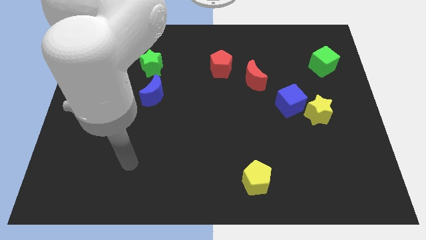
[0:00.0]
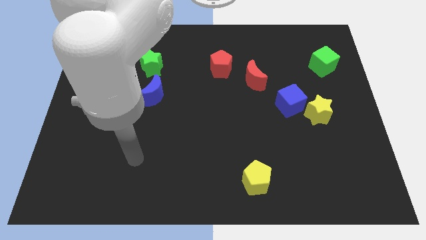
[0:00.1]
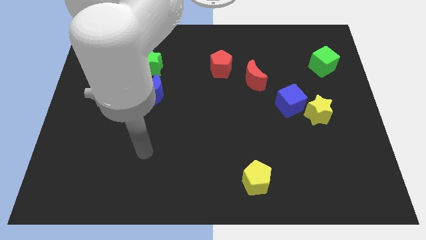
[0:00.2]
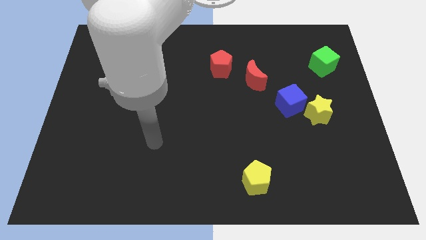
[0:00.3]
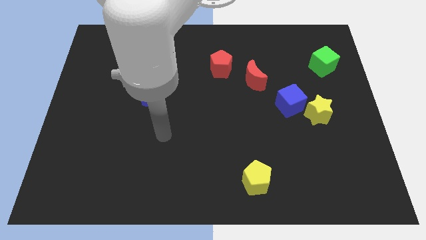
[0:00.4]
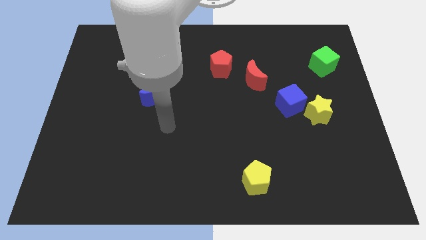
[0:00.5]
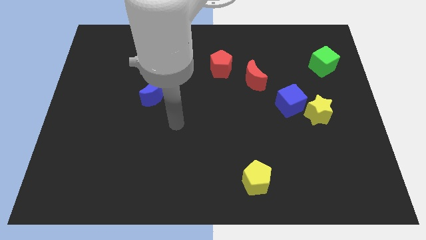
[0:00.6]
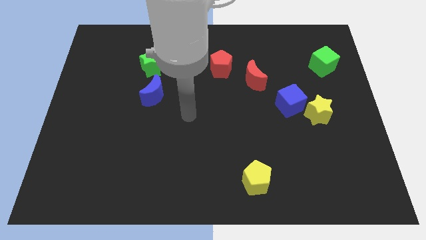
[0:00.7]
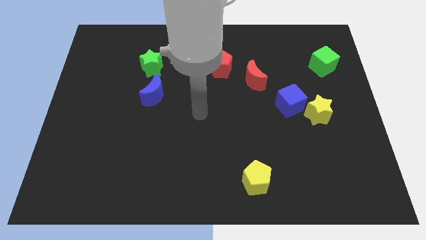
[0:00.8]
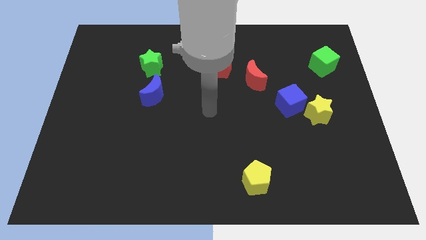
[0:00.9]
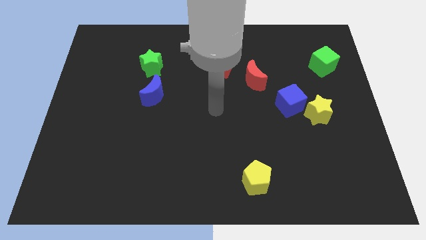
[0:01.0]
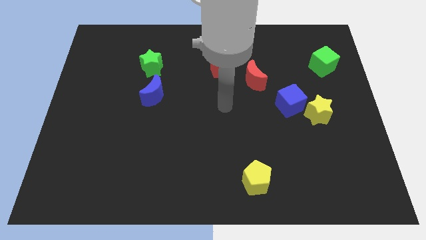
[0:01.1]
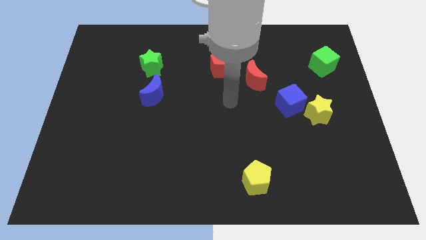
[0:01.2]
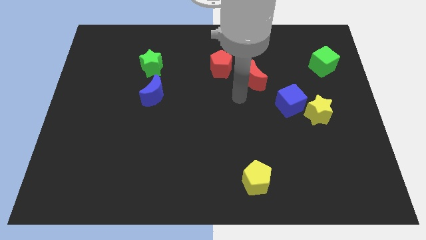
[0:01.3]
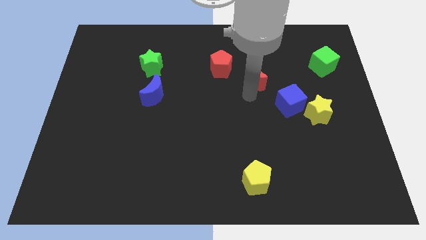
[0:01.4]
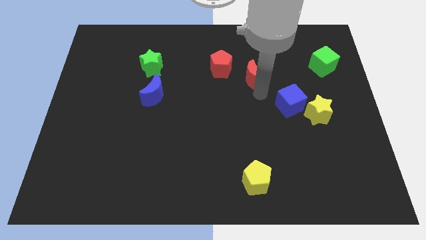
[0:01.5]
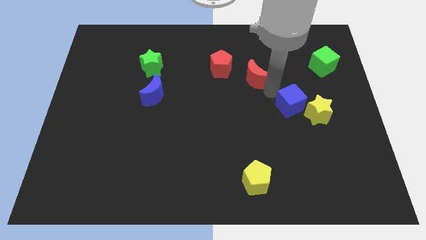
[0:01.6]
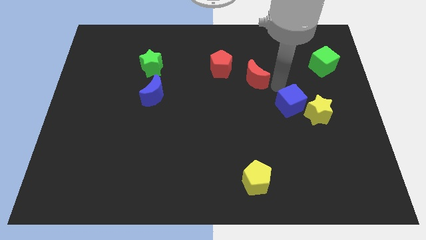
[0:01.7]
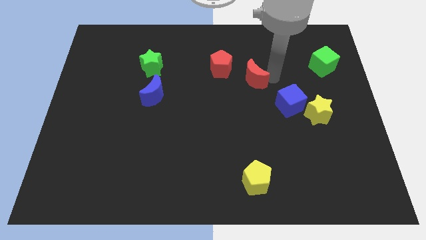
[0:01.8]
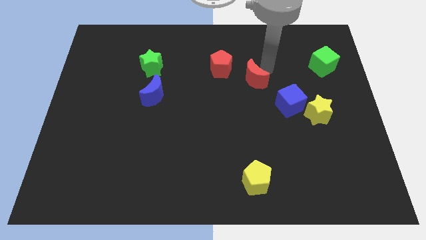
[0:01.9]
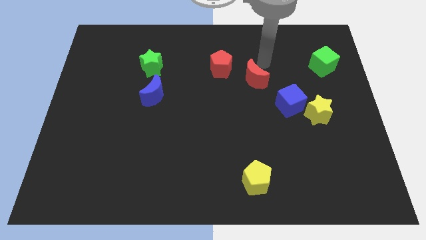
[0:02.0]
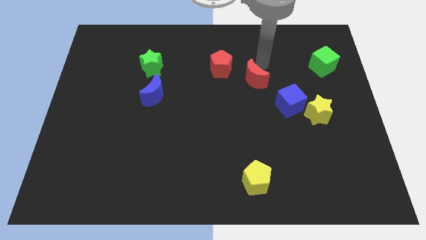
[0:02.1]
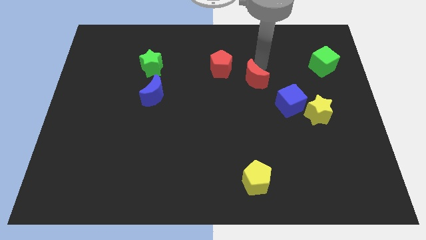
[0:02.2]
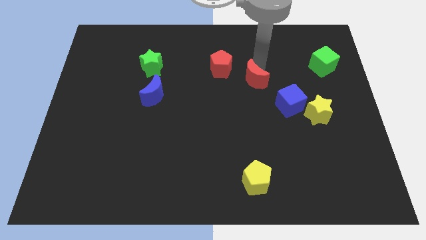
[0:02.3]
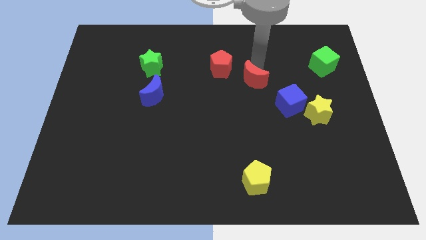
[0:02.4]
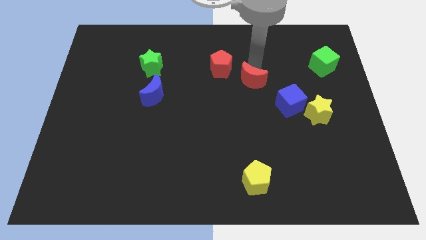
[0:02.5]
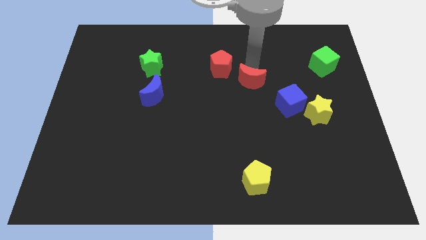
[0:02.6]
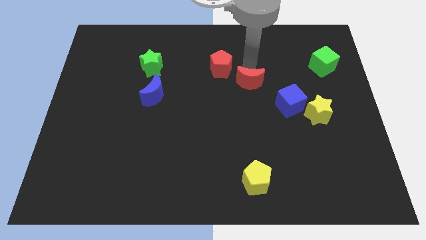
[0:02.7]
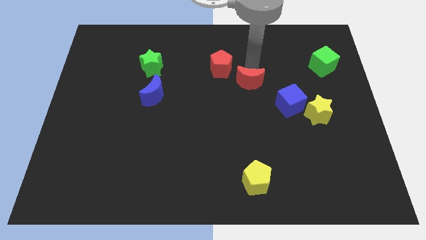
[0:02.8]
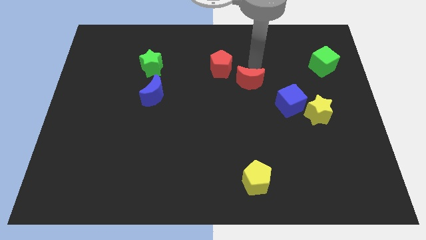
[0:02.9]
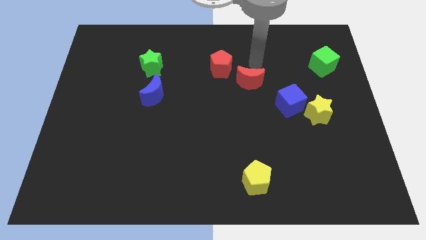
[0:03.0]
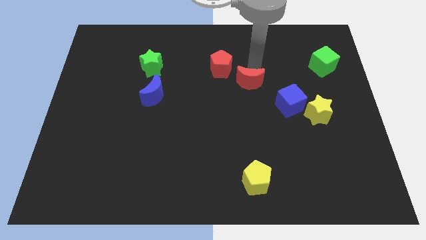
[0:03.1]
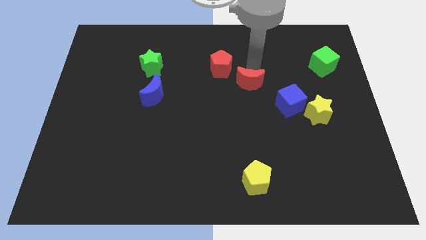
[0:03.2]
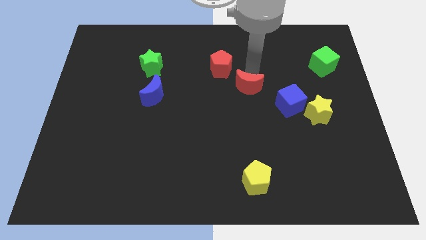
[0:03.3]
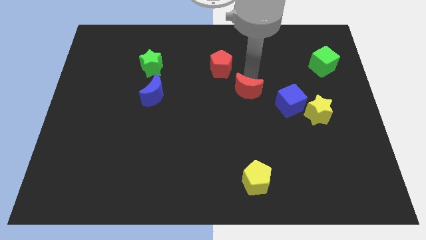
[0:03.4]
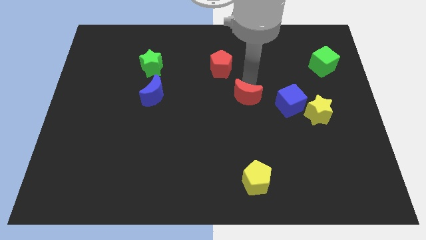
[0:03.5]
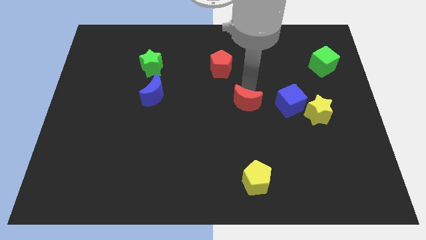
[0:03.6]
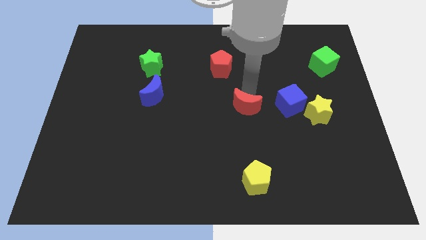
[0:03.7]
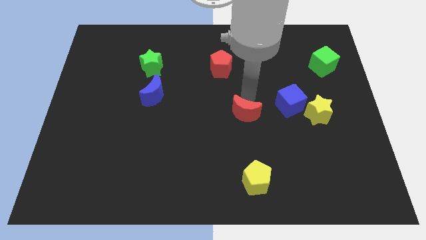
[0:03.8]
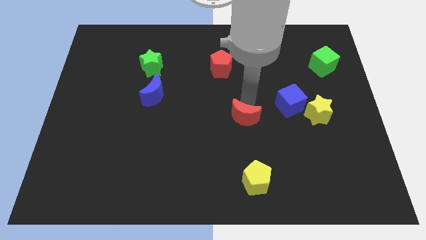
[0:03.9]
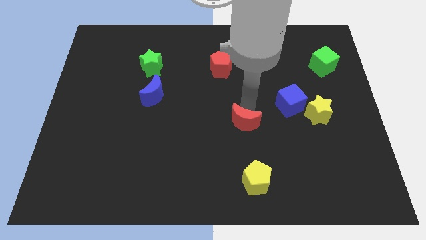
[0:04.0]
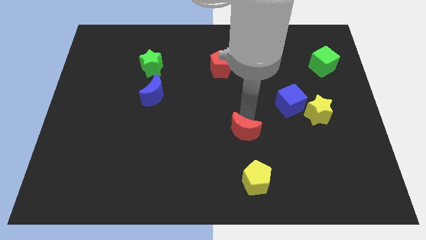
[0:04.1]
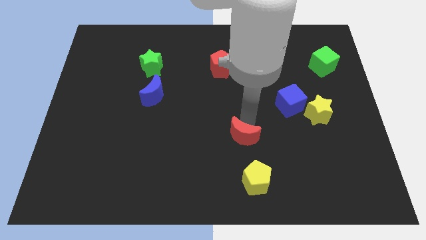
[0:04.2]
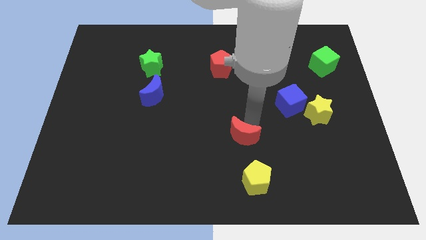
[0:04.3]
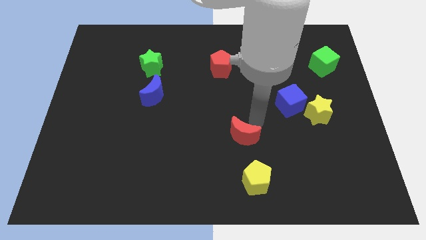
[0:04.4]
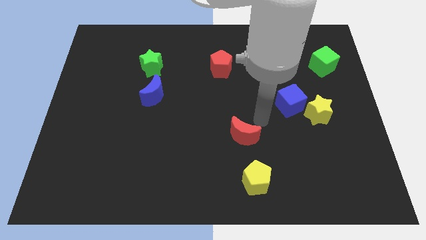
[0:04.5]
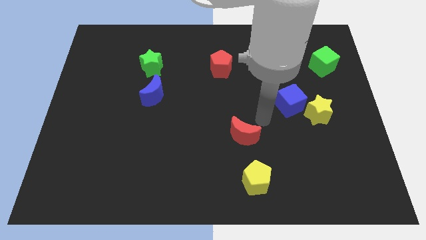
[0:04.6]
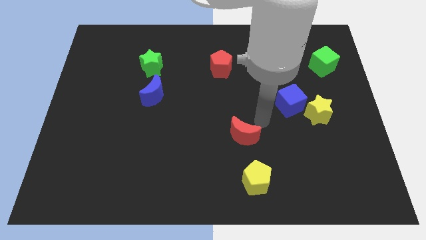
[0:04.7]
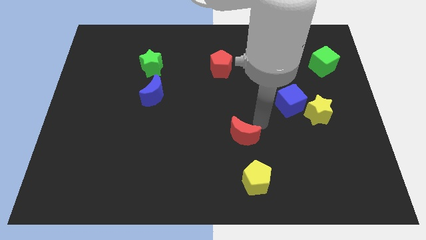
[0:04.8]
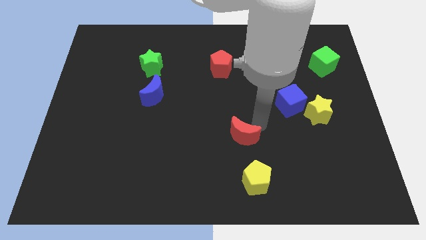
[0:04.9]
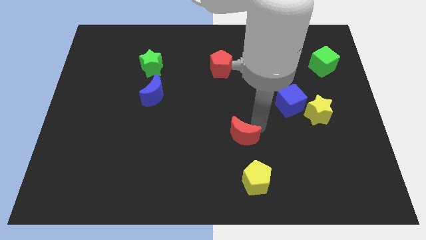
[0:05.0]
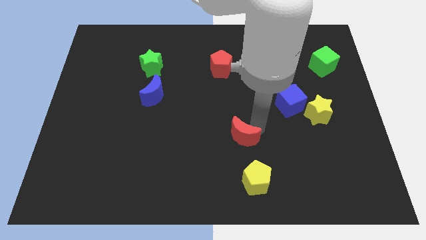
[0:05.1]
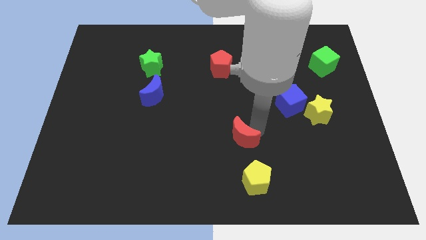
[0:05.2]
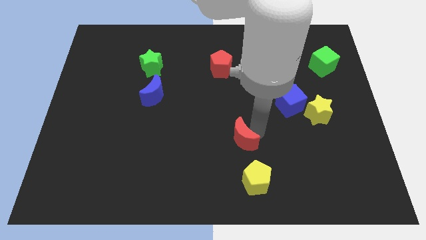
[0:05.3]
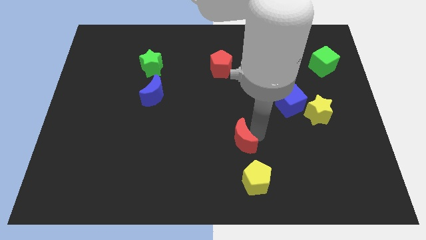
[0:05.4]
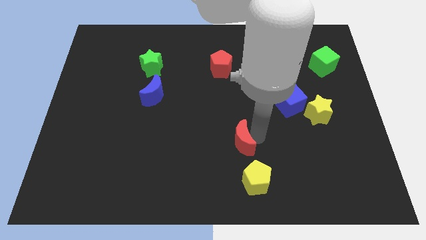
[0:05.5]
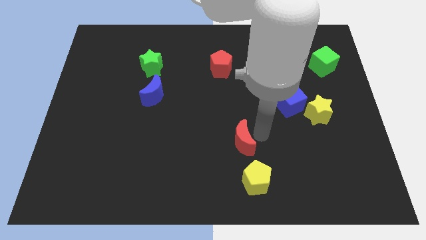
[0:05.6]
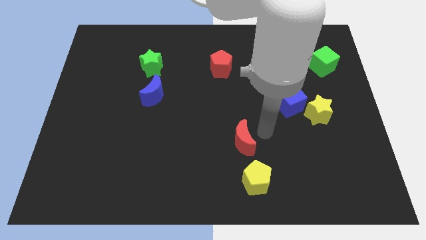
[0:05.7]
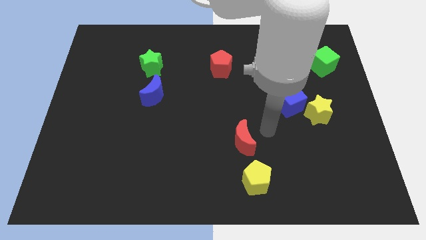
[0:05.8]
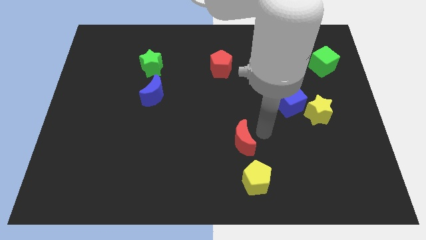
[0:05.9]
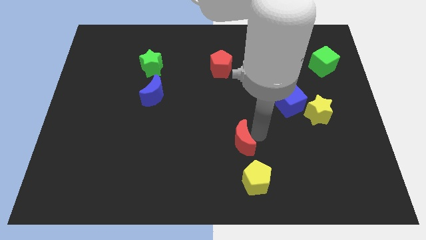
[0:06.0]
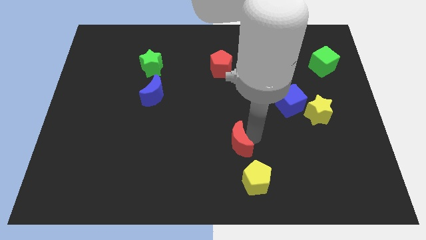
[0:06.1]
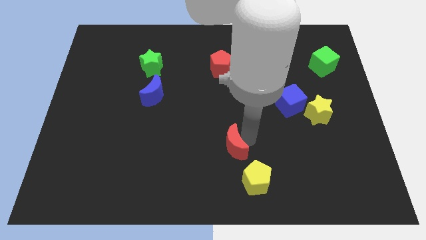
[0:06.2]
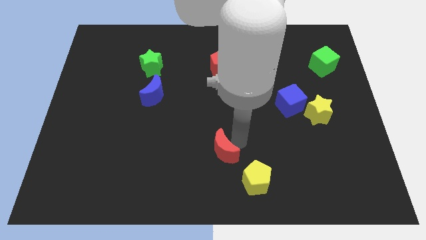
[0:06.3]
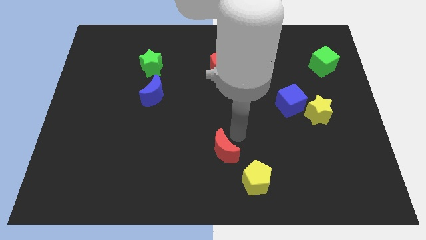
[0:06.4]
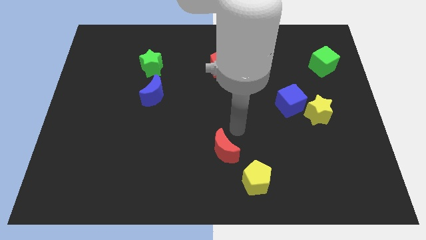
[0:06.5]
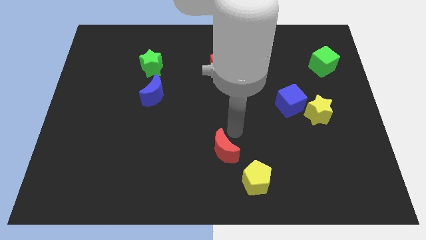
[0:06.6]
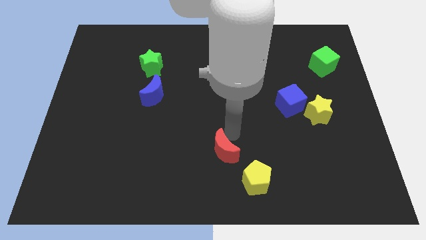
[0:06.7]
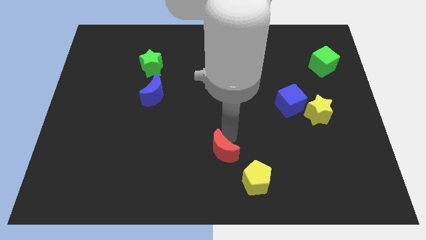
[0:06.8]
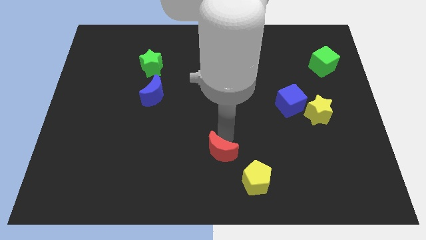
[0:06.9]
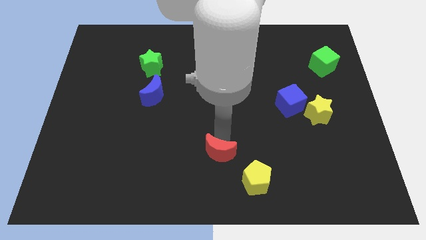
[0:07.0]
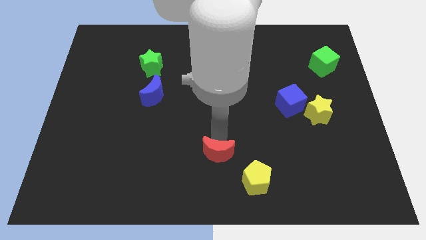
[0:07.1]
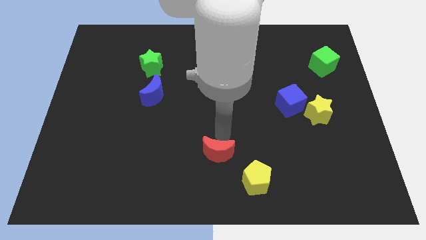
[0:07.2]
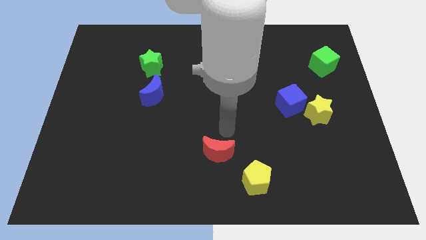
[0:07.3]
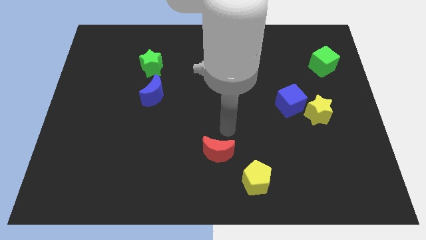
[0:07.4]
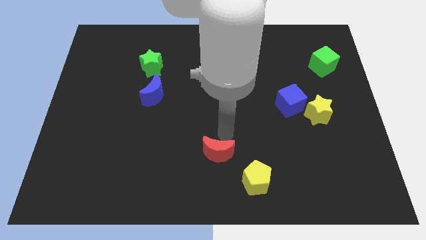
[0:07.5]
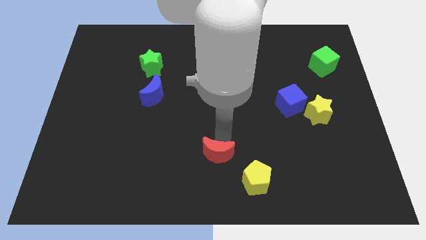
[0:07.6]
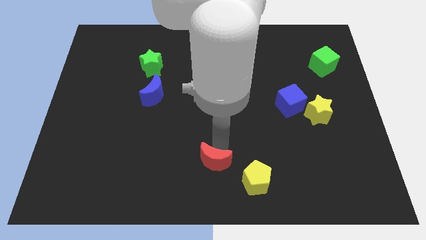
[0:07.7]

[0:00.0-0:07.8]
move the red moon left of the yellow pentagon

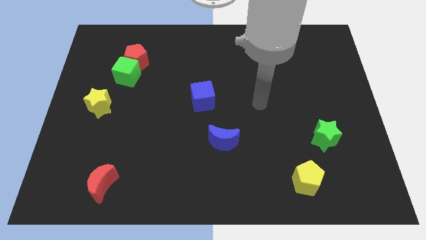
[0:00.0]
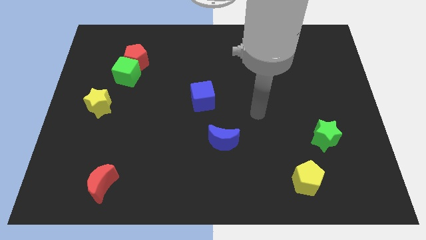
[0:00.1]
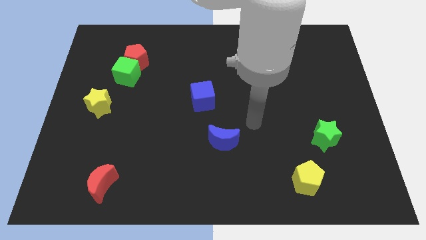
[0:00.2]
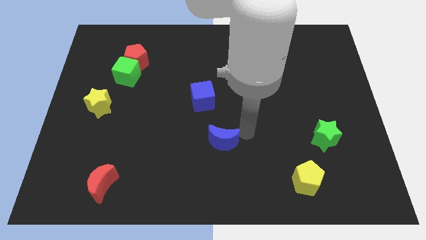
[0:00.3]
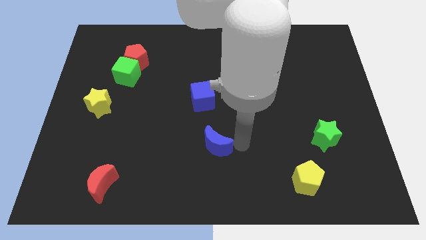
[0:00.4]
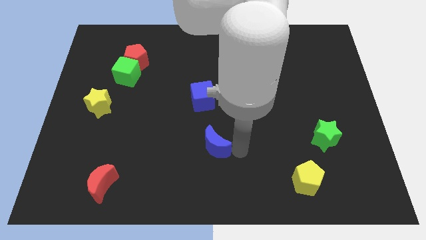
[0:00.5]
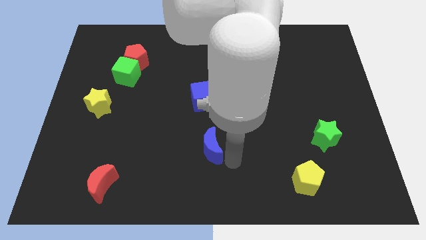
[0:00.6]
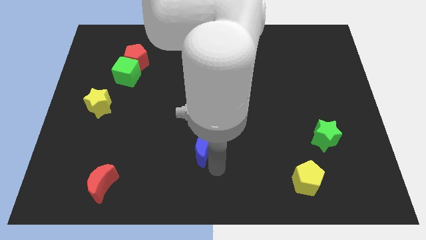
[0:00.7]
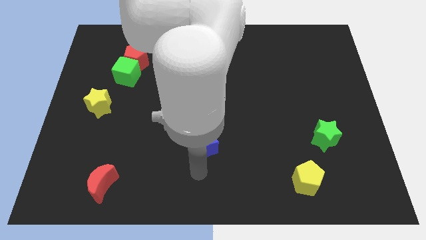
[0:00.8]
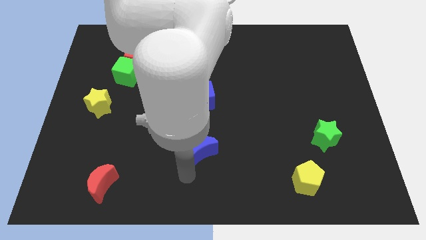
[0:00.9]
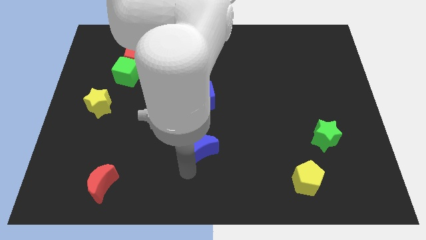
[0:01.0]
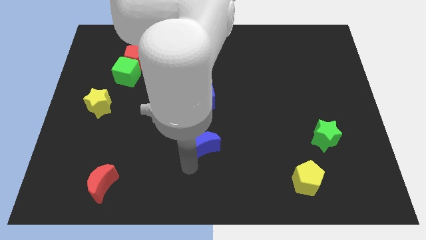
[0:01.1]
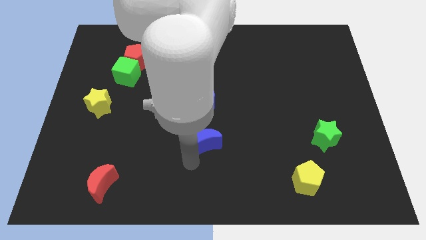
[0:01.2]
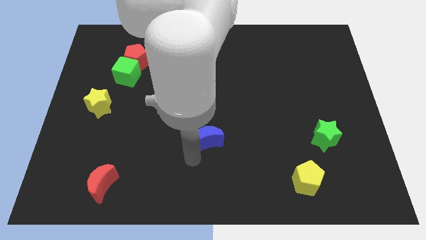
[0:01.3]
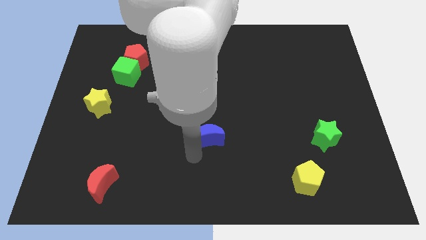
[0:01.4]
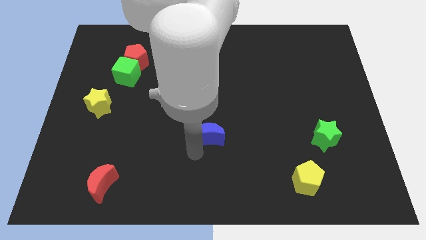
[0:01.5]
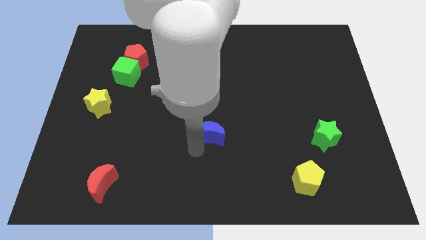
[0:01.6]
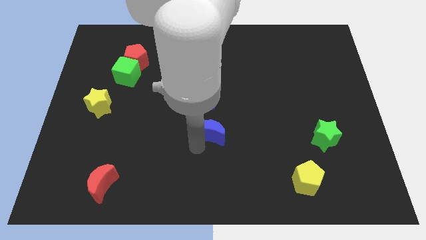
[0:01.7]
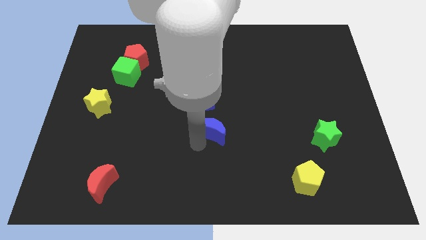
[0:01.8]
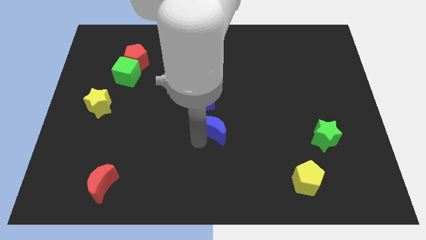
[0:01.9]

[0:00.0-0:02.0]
move the blue moon diagonally down and to the right of the blue cube
